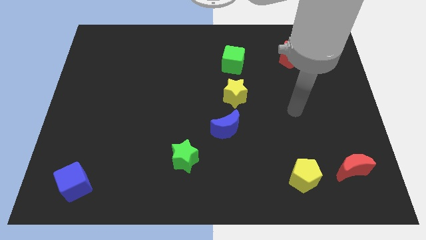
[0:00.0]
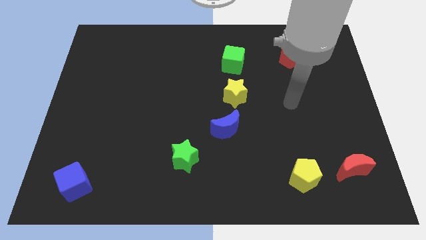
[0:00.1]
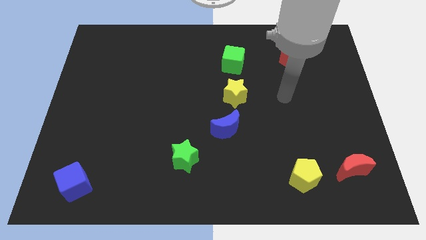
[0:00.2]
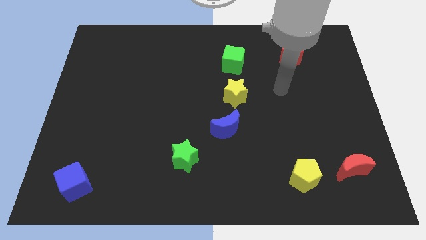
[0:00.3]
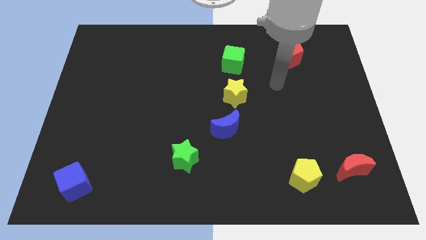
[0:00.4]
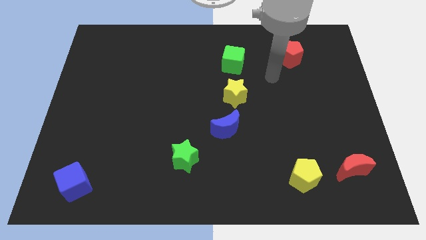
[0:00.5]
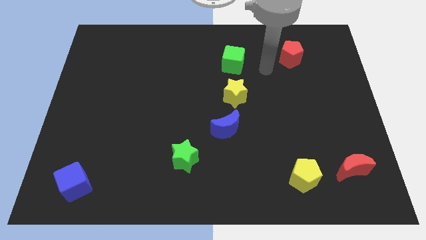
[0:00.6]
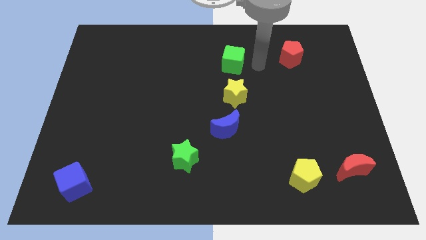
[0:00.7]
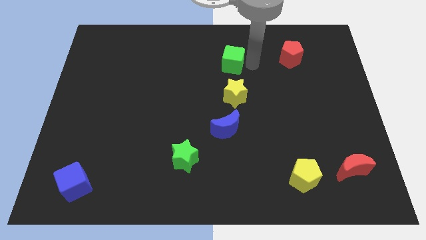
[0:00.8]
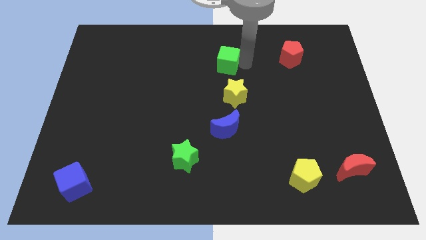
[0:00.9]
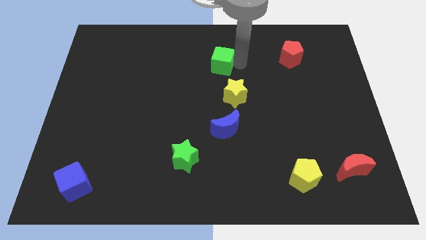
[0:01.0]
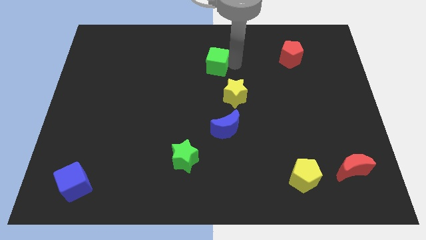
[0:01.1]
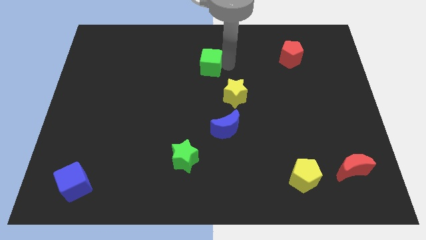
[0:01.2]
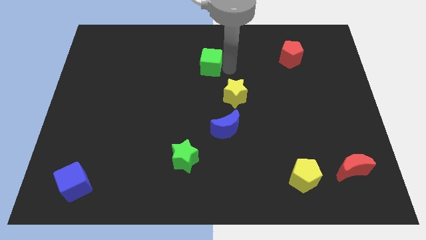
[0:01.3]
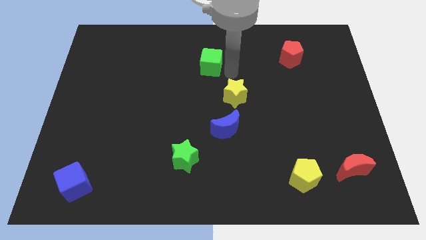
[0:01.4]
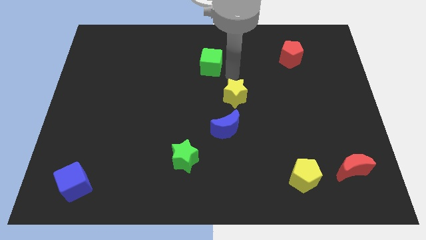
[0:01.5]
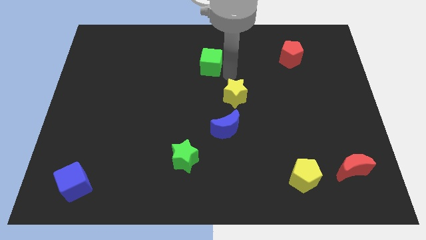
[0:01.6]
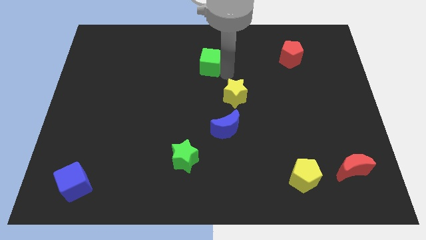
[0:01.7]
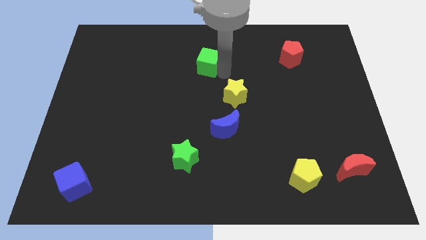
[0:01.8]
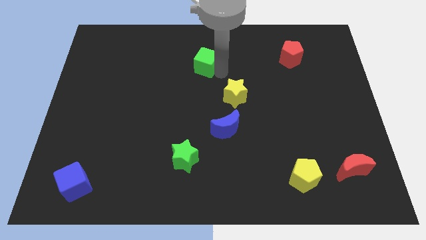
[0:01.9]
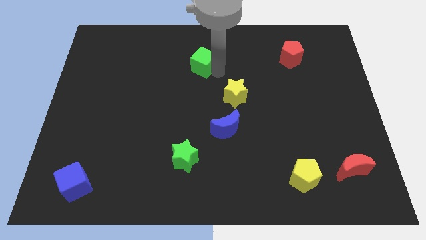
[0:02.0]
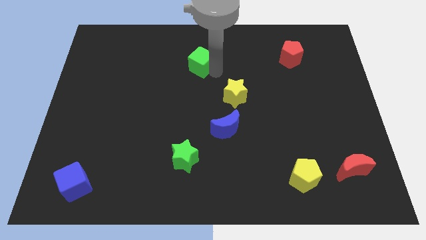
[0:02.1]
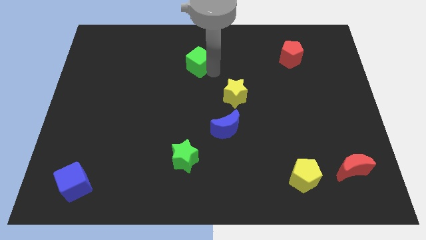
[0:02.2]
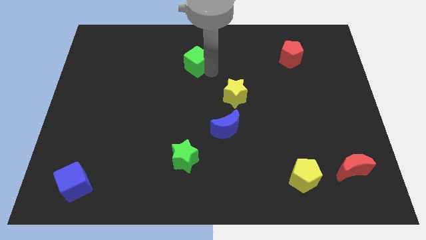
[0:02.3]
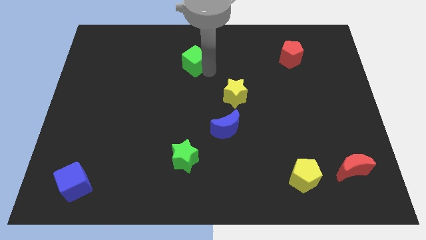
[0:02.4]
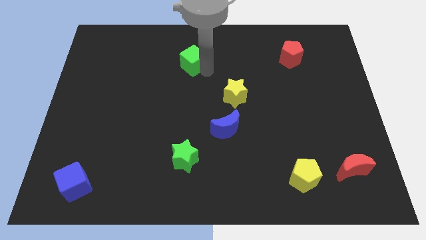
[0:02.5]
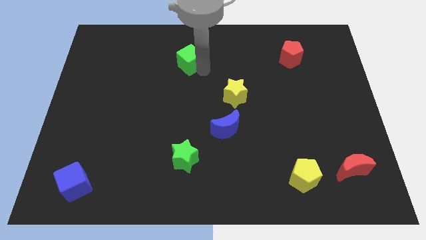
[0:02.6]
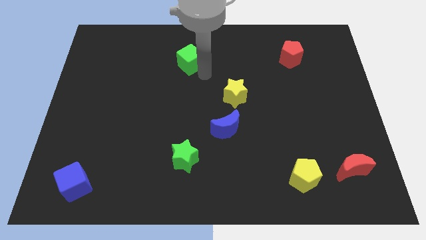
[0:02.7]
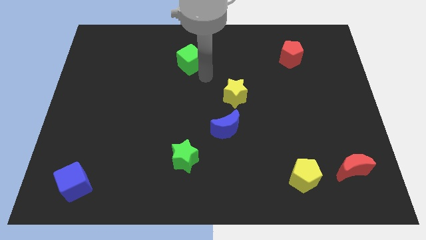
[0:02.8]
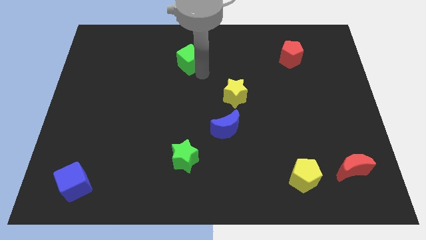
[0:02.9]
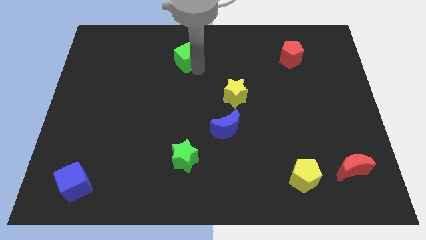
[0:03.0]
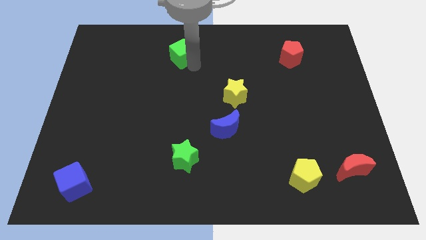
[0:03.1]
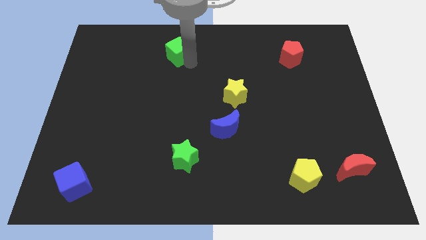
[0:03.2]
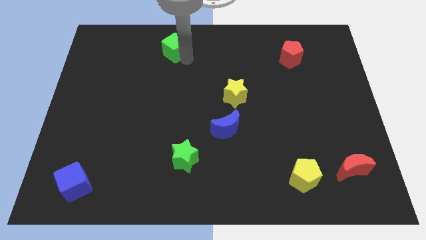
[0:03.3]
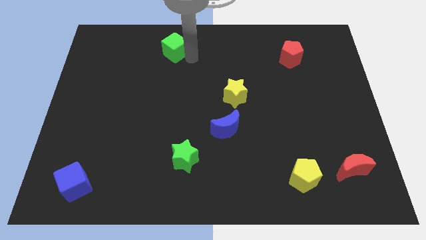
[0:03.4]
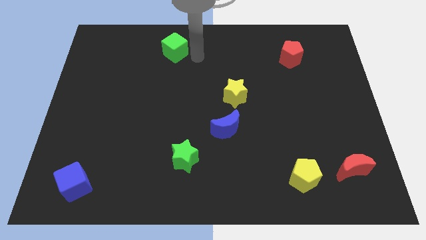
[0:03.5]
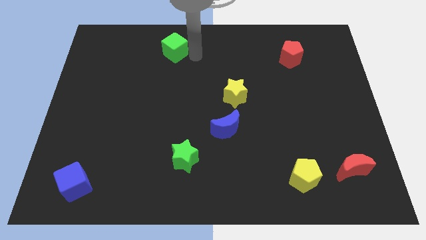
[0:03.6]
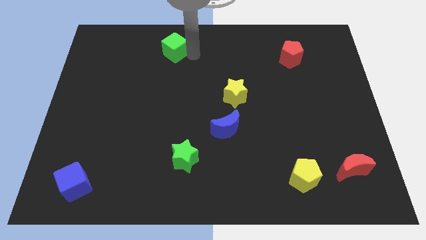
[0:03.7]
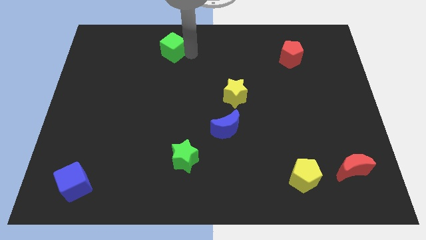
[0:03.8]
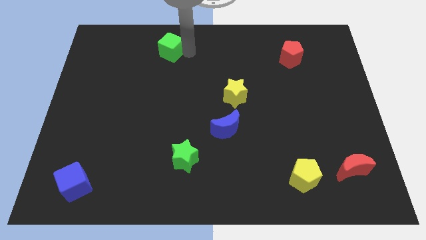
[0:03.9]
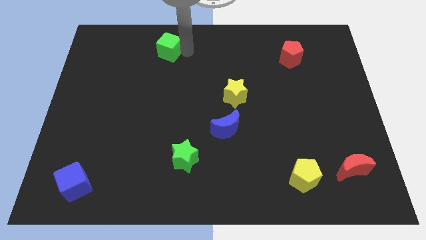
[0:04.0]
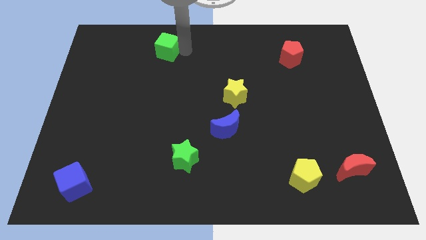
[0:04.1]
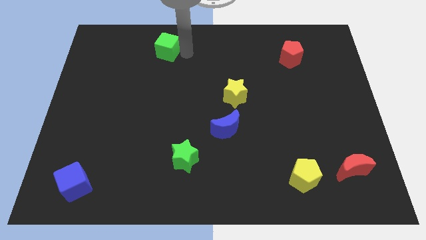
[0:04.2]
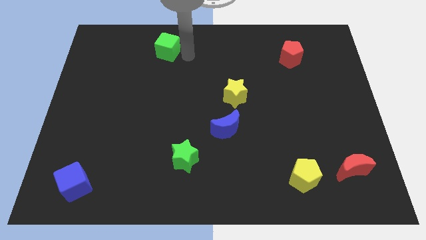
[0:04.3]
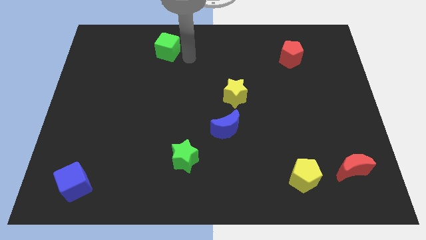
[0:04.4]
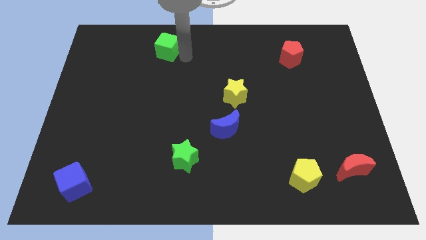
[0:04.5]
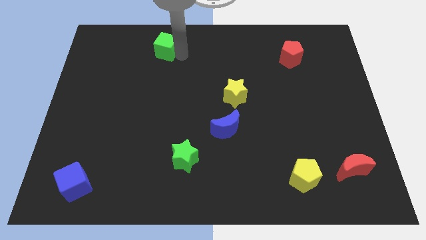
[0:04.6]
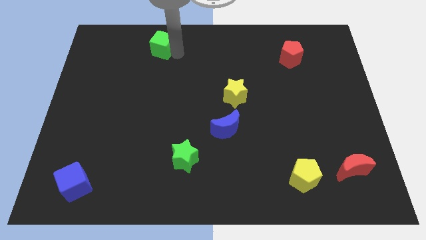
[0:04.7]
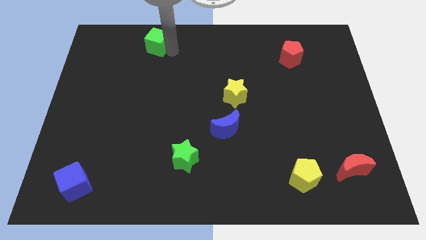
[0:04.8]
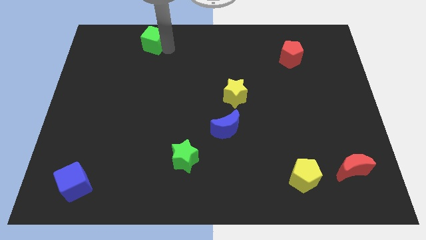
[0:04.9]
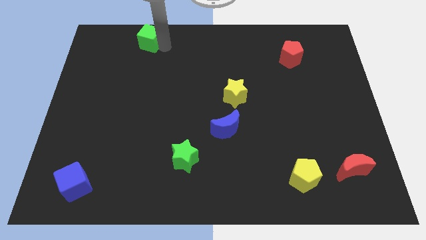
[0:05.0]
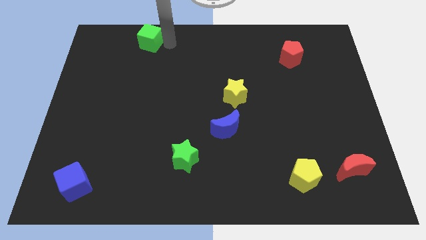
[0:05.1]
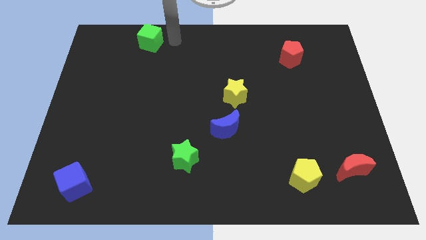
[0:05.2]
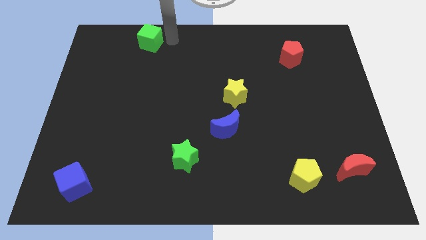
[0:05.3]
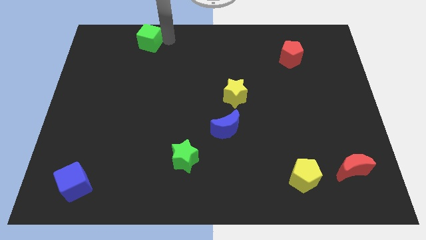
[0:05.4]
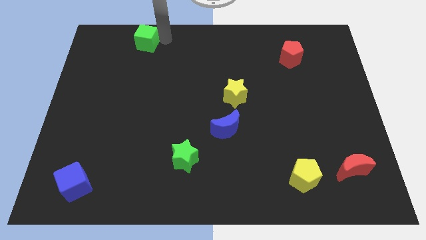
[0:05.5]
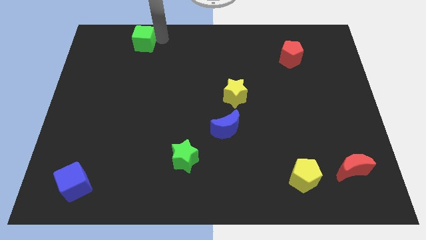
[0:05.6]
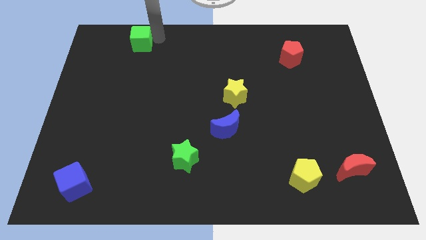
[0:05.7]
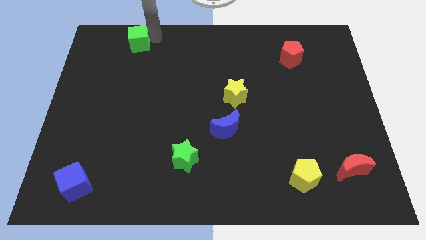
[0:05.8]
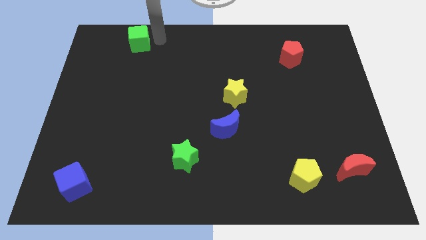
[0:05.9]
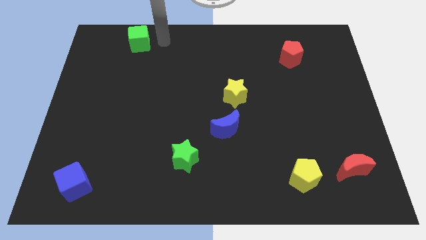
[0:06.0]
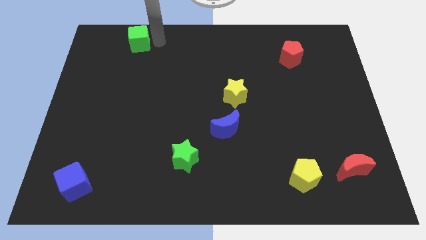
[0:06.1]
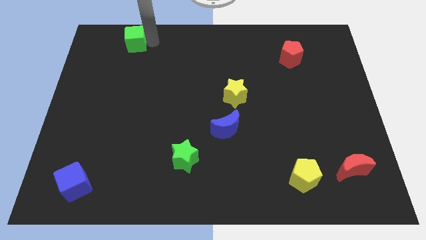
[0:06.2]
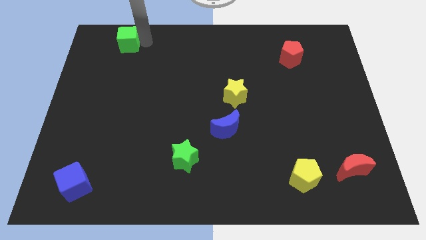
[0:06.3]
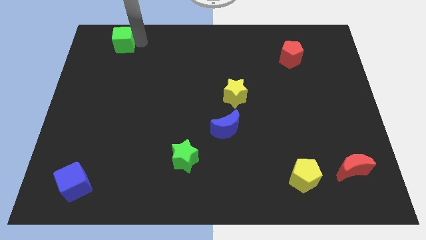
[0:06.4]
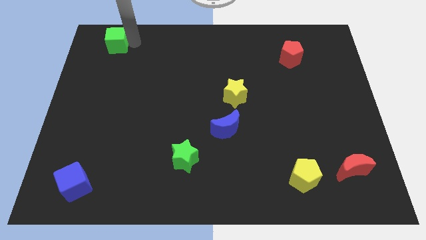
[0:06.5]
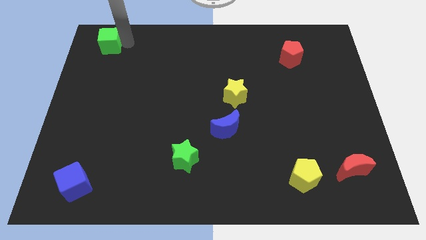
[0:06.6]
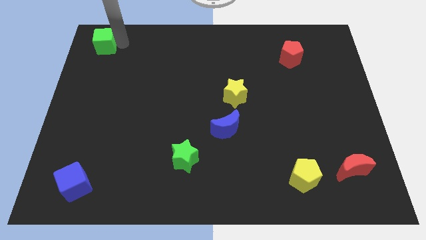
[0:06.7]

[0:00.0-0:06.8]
move the green cube to the top left
